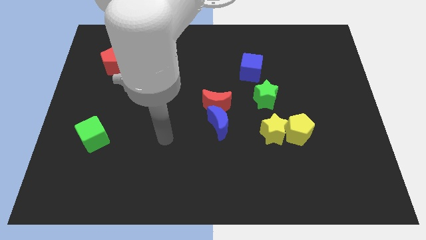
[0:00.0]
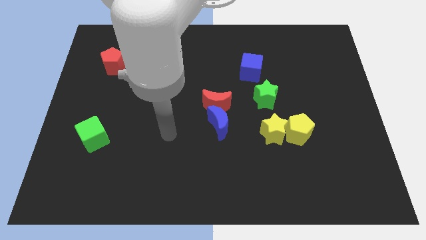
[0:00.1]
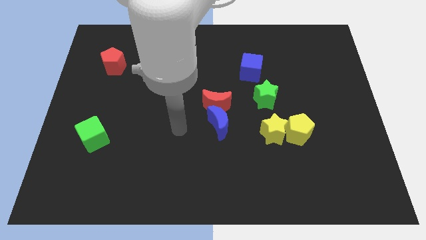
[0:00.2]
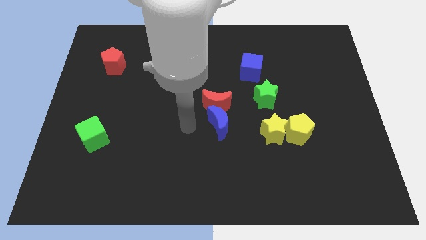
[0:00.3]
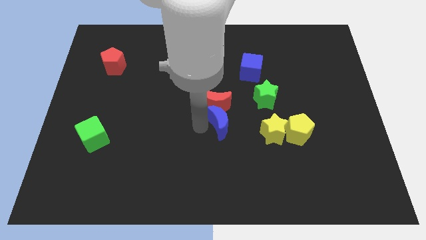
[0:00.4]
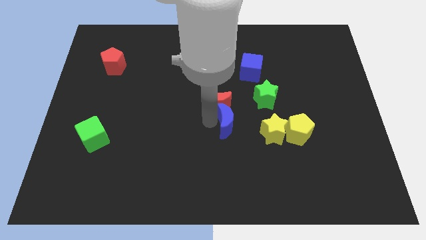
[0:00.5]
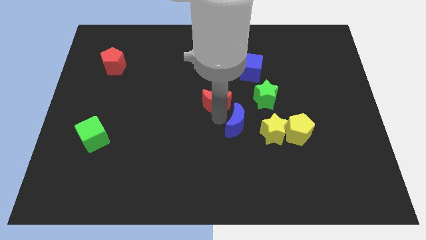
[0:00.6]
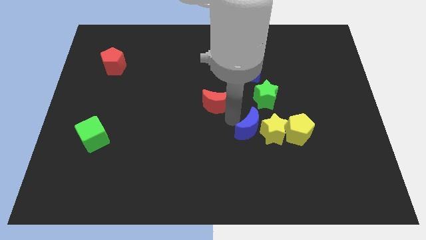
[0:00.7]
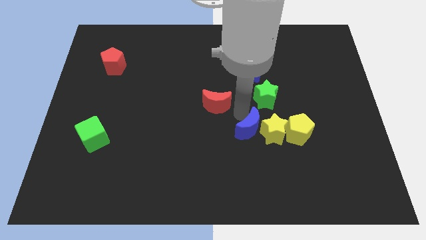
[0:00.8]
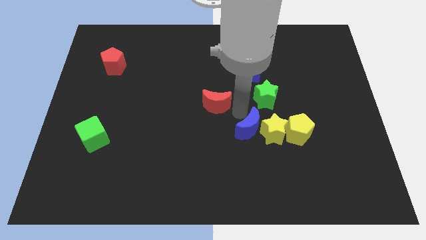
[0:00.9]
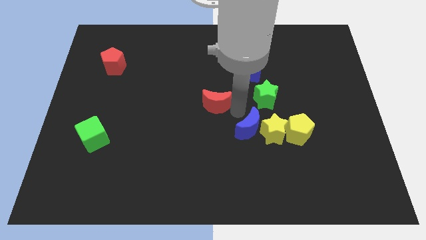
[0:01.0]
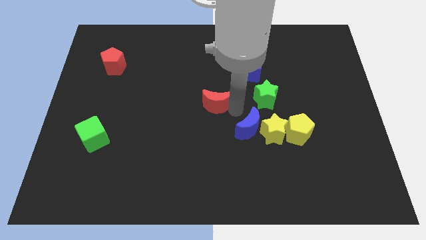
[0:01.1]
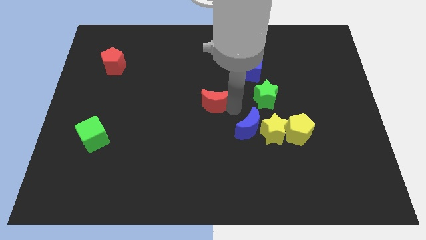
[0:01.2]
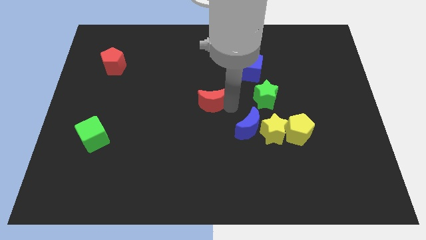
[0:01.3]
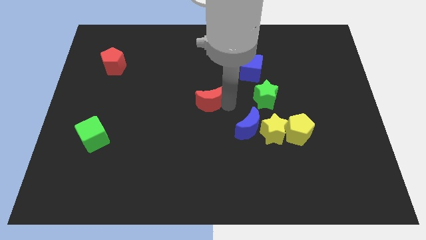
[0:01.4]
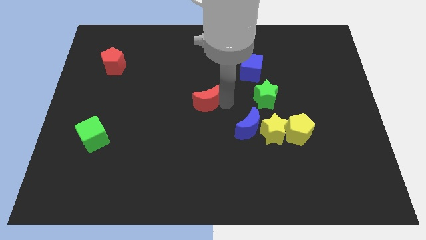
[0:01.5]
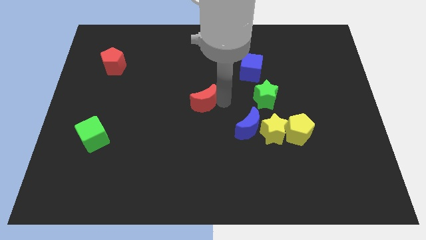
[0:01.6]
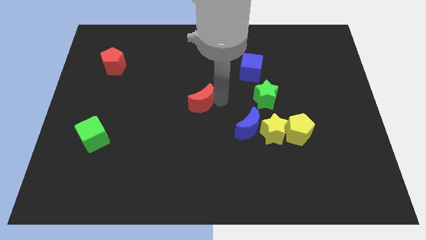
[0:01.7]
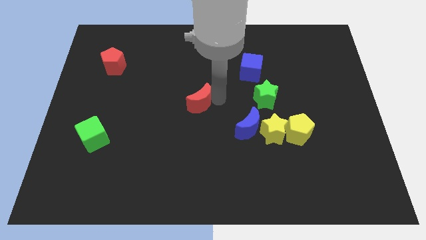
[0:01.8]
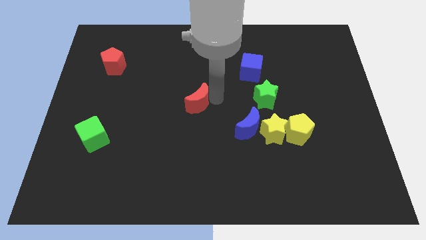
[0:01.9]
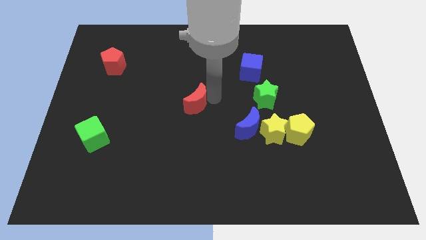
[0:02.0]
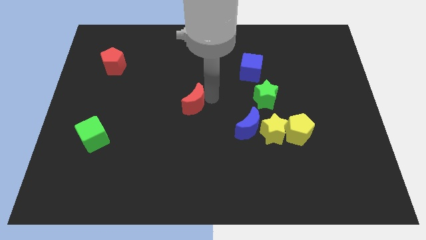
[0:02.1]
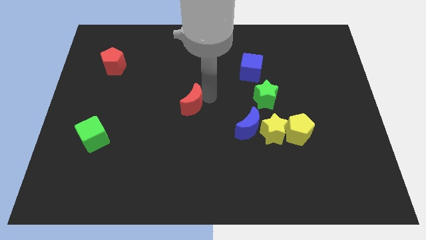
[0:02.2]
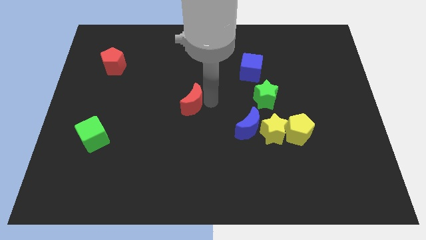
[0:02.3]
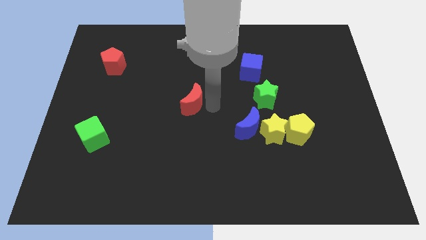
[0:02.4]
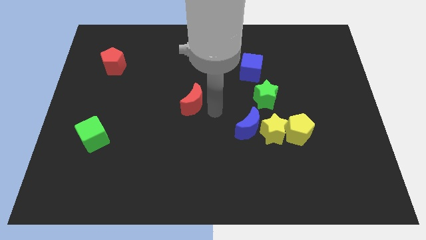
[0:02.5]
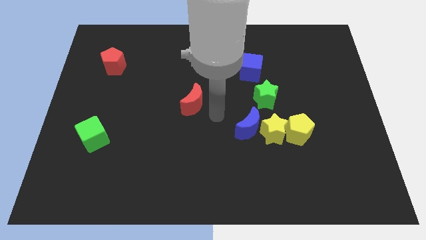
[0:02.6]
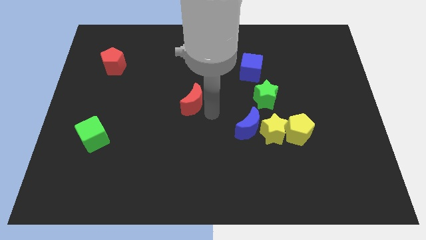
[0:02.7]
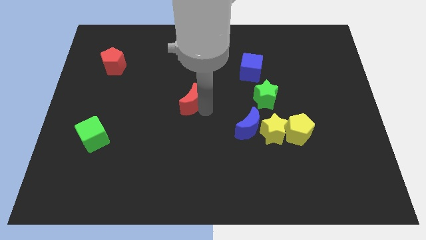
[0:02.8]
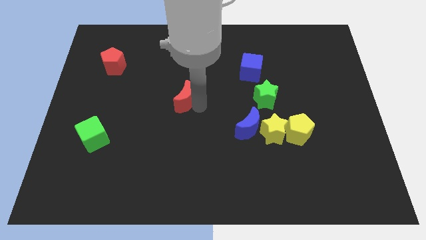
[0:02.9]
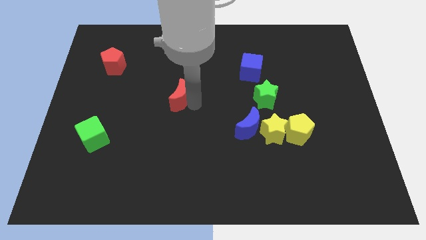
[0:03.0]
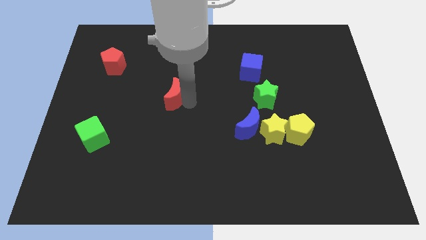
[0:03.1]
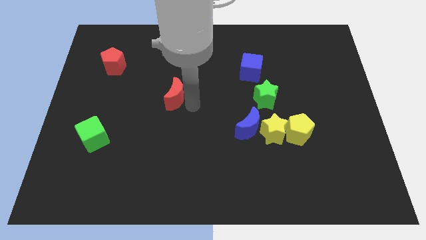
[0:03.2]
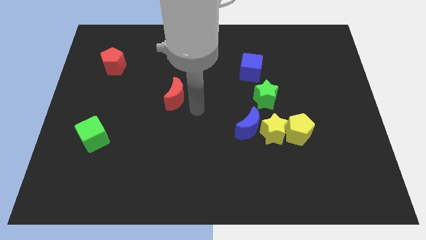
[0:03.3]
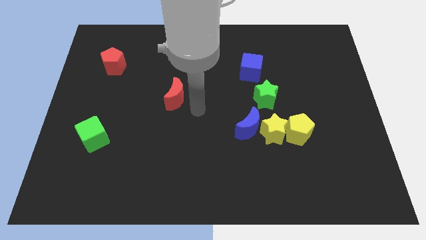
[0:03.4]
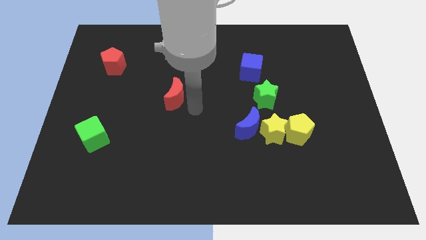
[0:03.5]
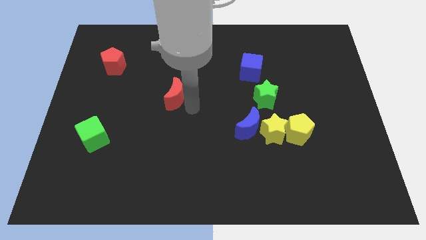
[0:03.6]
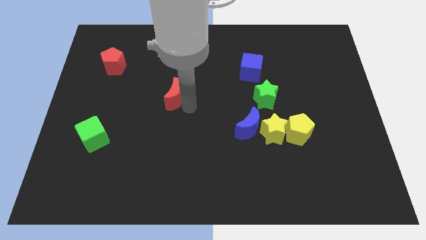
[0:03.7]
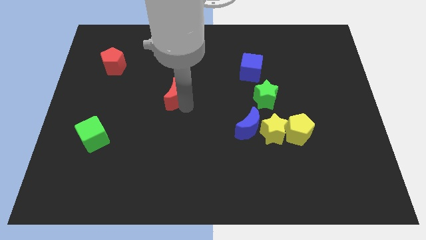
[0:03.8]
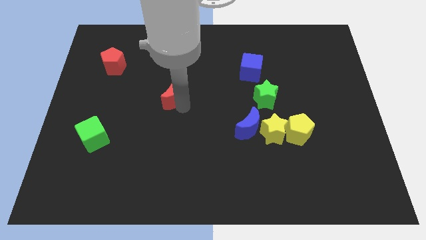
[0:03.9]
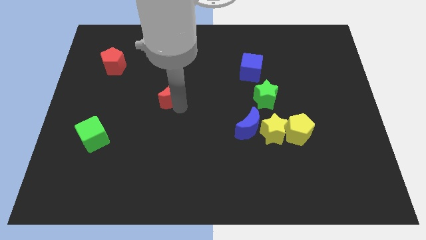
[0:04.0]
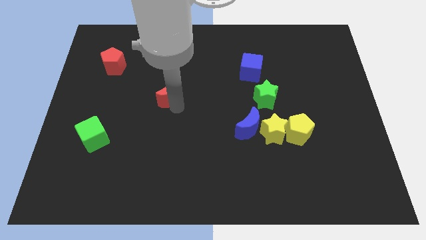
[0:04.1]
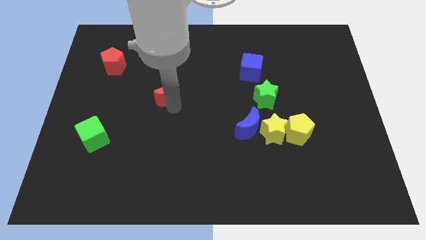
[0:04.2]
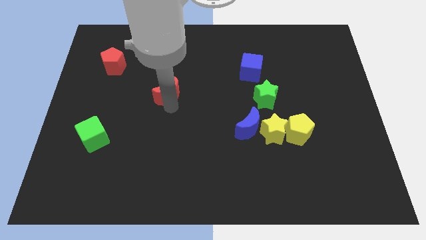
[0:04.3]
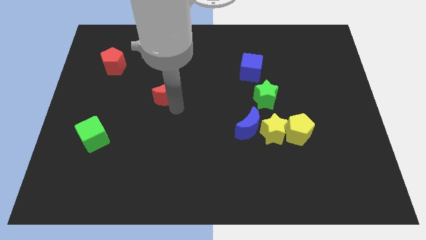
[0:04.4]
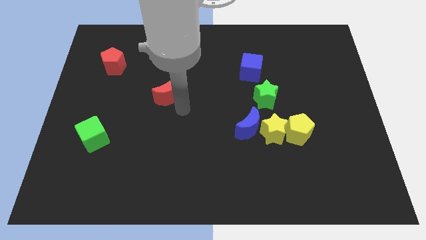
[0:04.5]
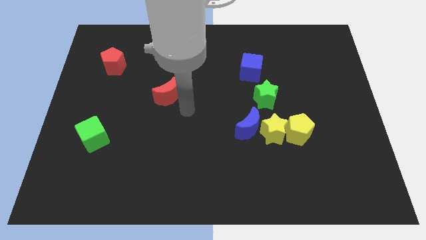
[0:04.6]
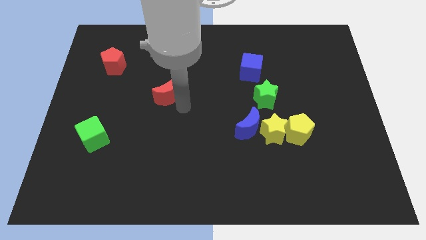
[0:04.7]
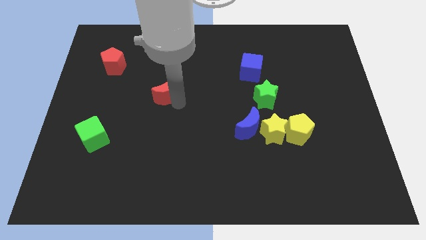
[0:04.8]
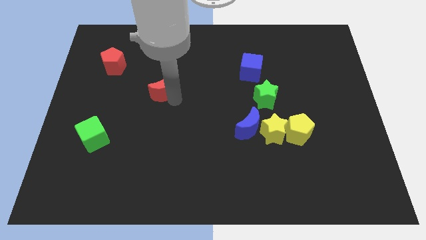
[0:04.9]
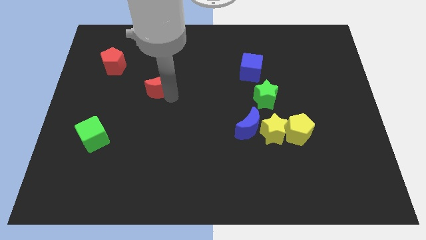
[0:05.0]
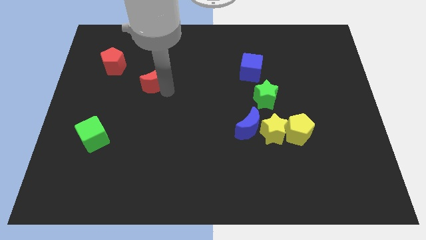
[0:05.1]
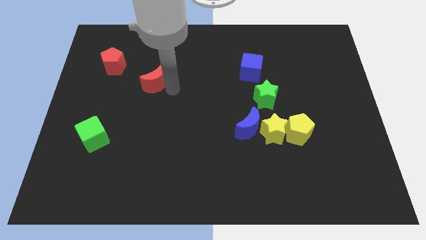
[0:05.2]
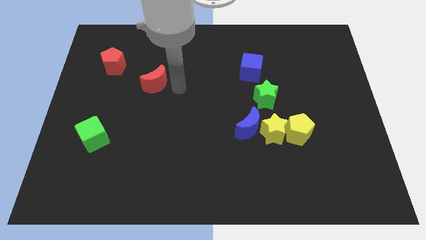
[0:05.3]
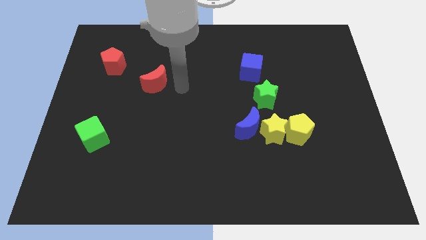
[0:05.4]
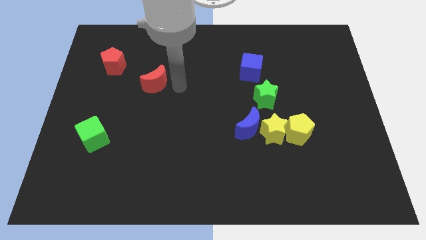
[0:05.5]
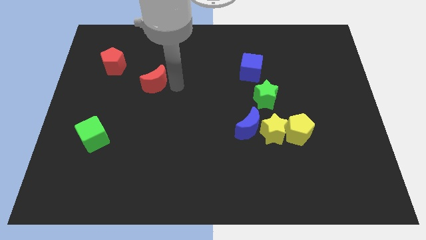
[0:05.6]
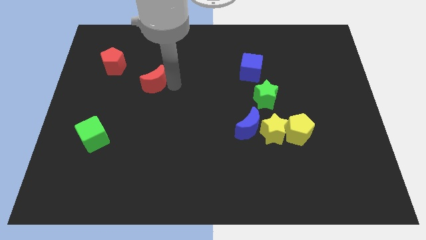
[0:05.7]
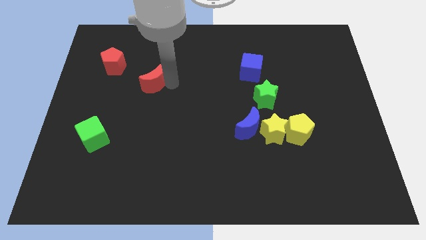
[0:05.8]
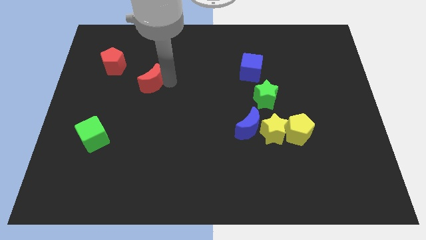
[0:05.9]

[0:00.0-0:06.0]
push the red moon diagonally down and to the right of the red pentagon

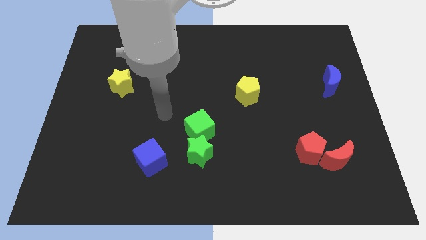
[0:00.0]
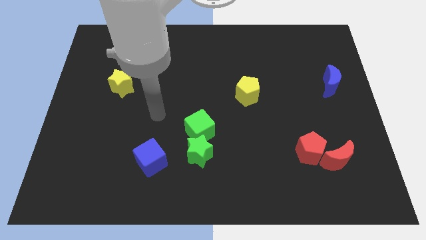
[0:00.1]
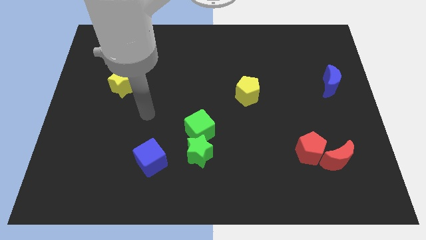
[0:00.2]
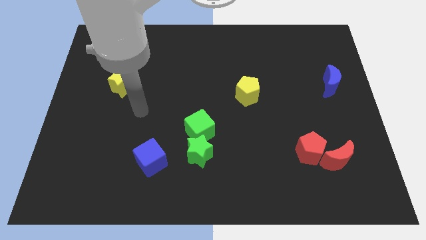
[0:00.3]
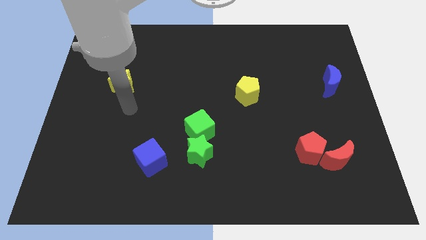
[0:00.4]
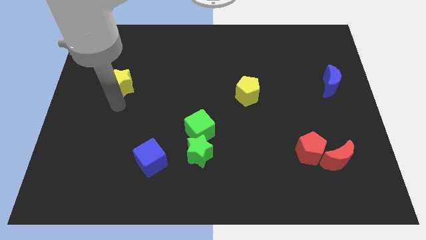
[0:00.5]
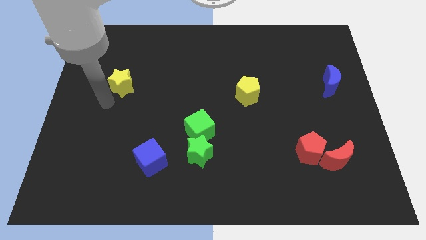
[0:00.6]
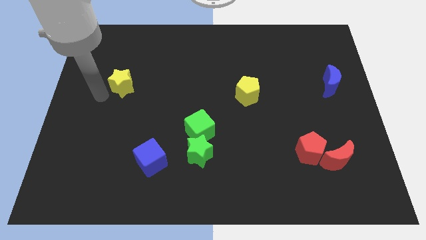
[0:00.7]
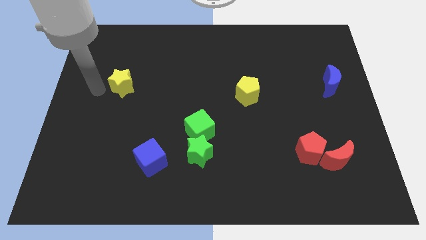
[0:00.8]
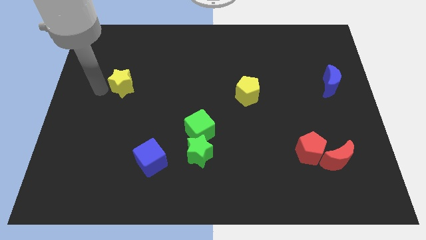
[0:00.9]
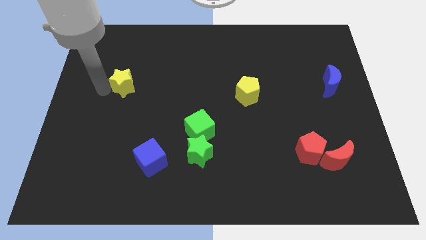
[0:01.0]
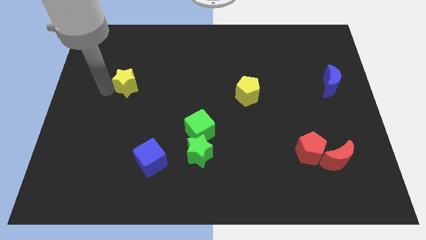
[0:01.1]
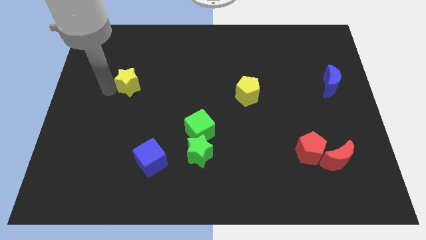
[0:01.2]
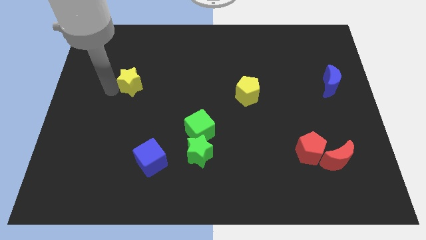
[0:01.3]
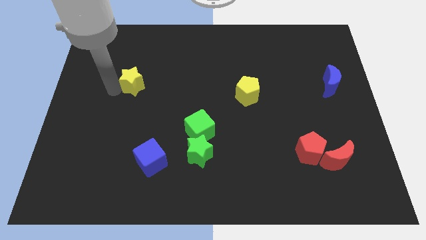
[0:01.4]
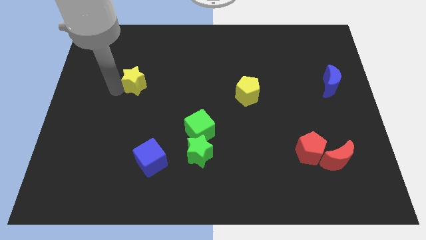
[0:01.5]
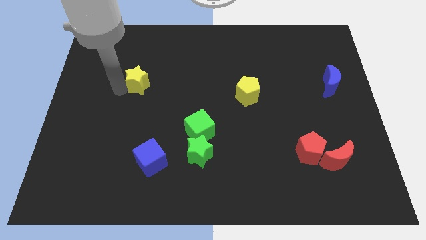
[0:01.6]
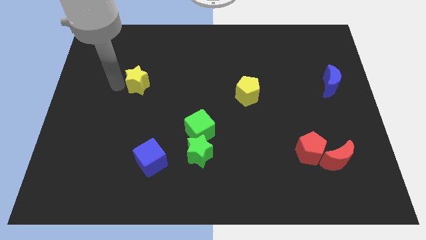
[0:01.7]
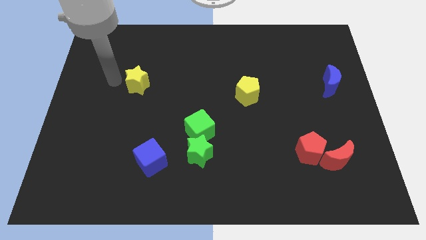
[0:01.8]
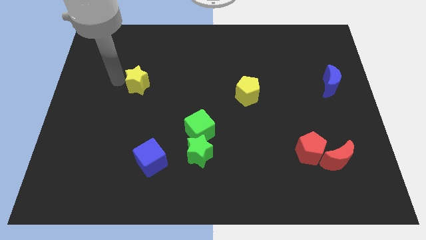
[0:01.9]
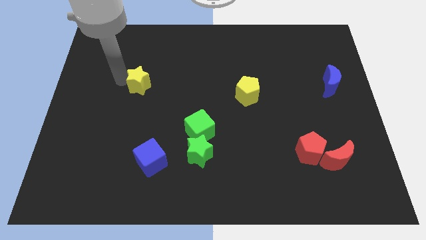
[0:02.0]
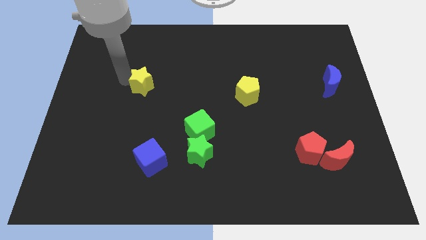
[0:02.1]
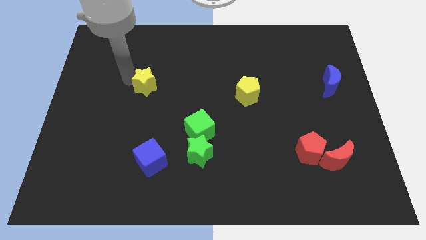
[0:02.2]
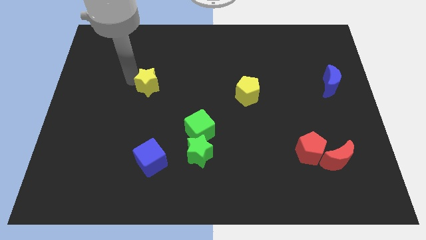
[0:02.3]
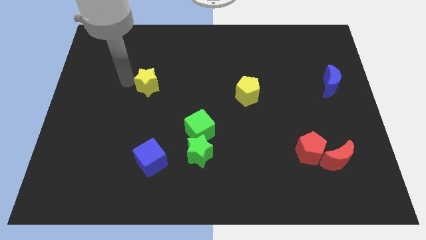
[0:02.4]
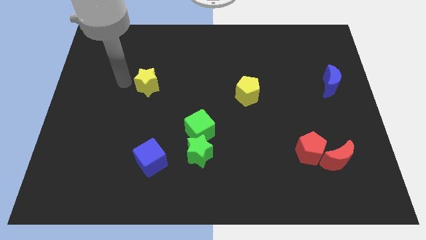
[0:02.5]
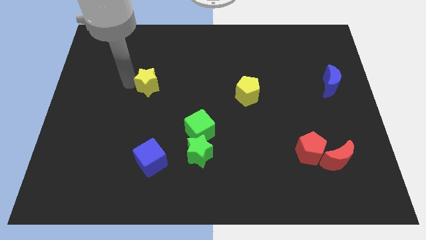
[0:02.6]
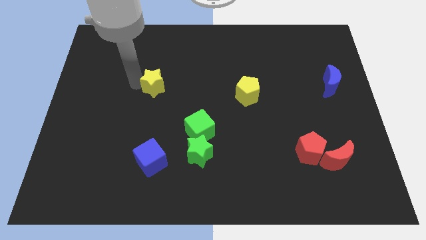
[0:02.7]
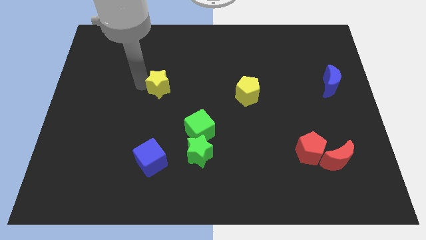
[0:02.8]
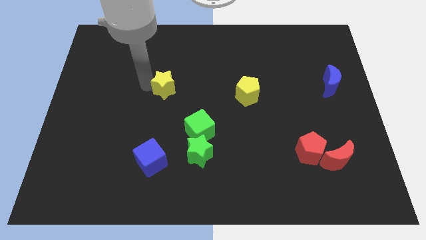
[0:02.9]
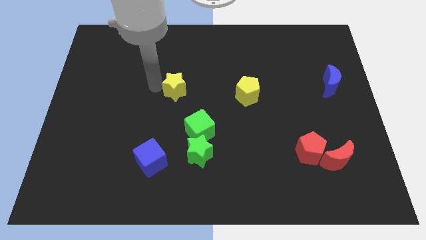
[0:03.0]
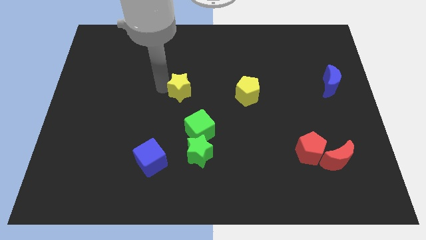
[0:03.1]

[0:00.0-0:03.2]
push the yellow star to the top side of the green cube
